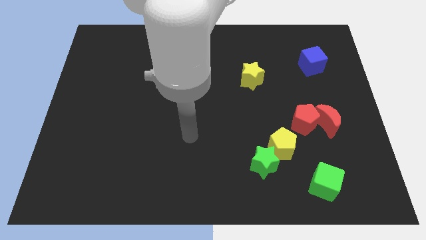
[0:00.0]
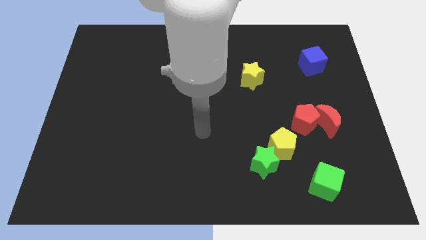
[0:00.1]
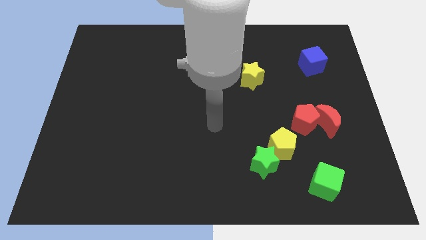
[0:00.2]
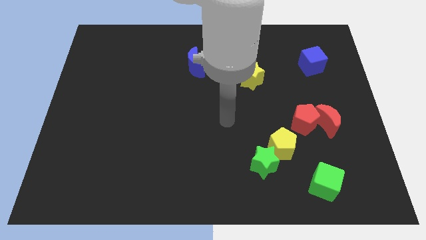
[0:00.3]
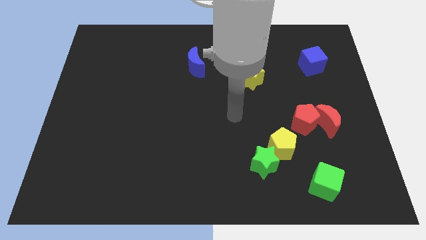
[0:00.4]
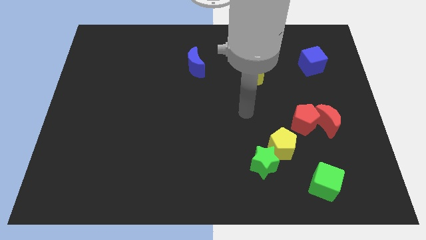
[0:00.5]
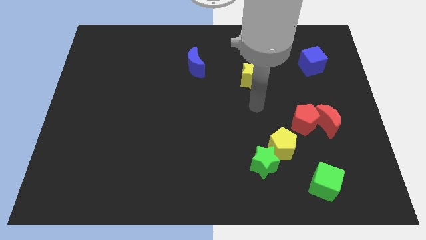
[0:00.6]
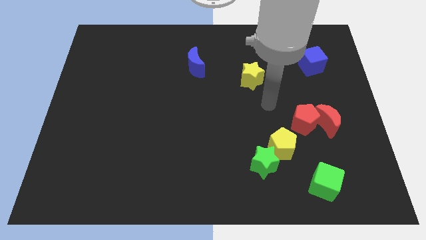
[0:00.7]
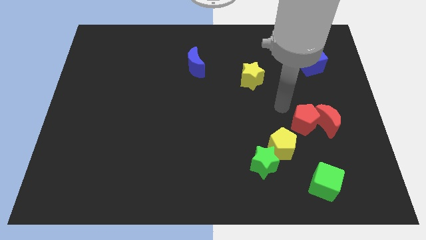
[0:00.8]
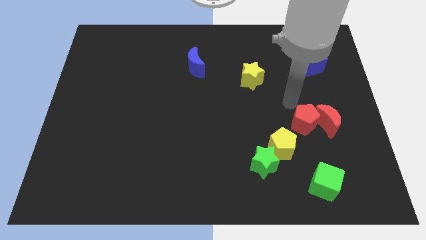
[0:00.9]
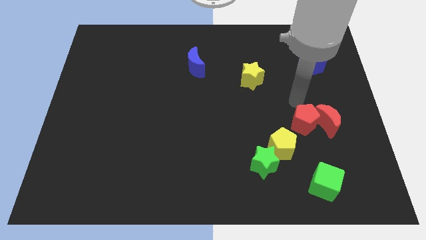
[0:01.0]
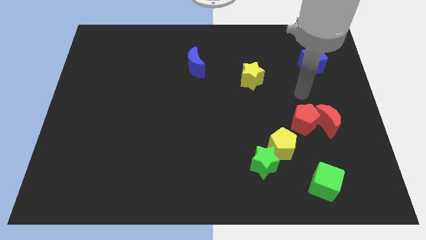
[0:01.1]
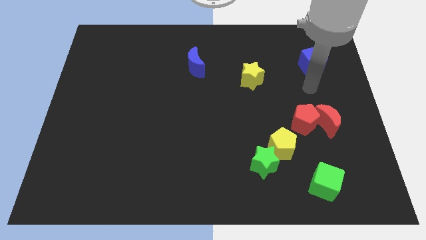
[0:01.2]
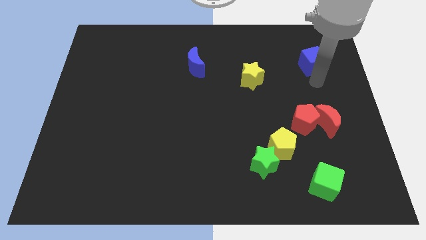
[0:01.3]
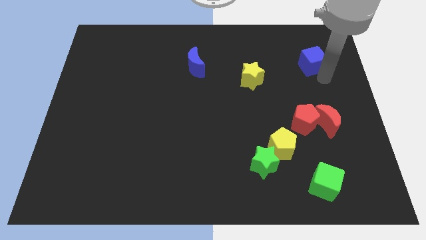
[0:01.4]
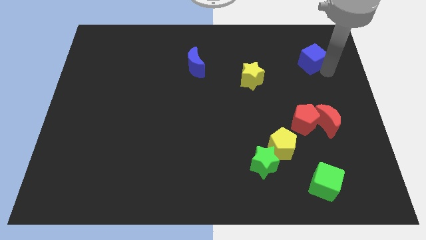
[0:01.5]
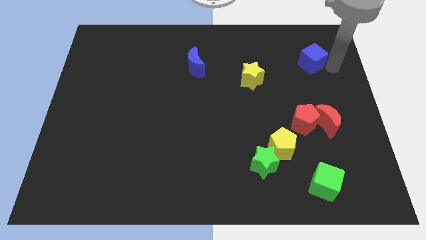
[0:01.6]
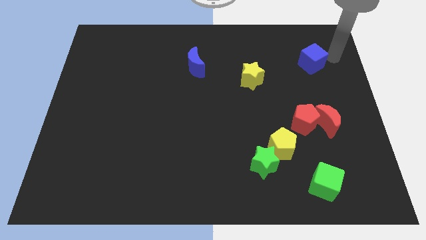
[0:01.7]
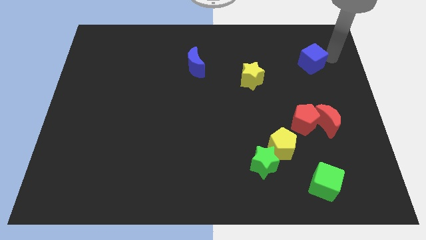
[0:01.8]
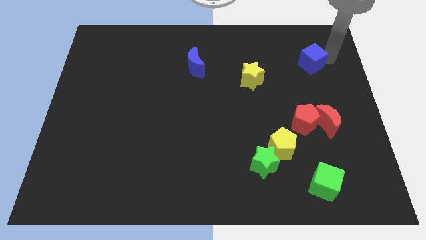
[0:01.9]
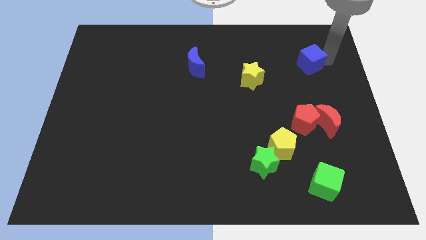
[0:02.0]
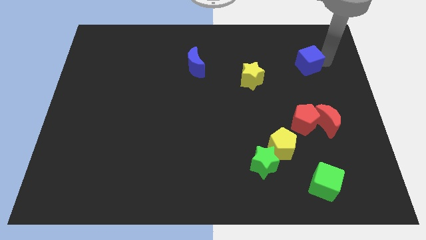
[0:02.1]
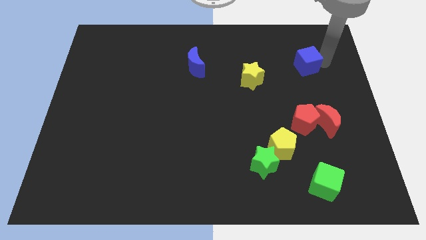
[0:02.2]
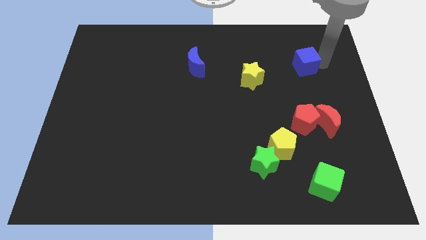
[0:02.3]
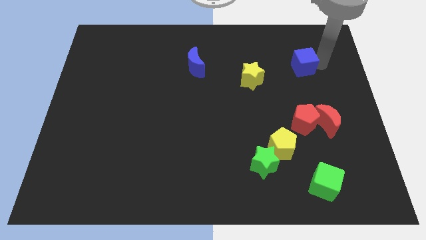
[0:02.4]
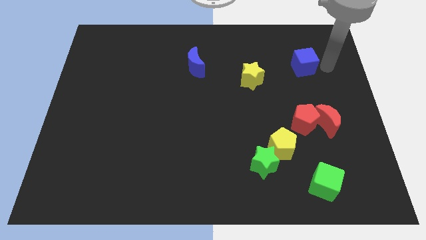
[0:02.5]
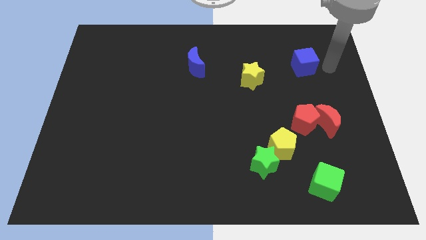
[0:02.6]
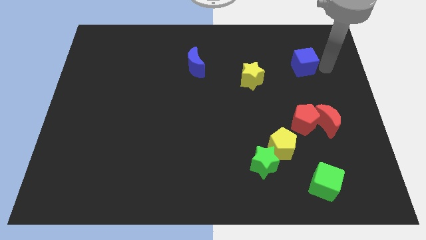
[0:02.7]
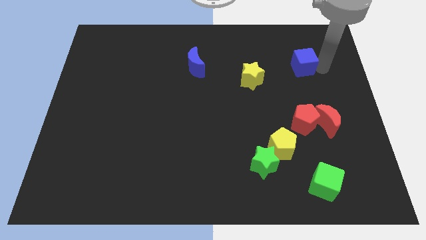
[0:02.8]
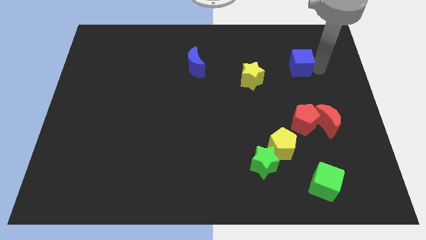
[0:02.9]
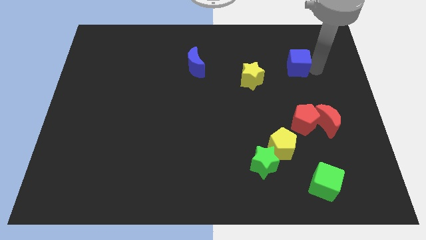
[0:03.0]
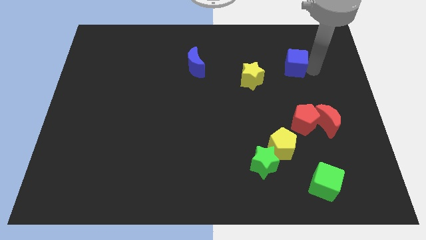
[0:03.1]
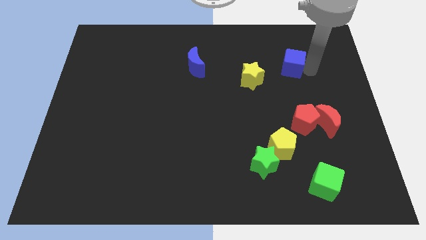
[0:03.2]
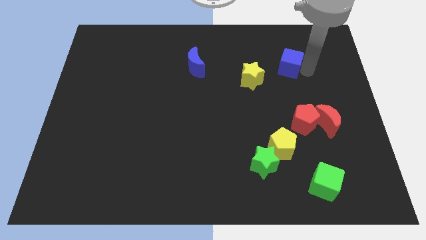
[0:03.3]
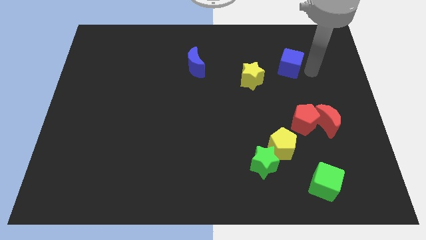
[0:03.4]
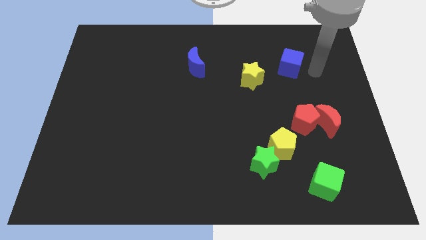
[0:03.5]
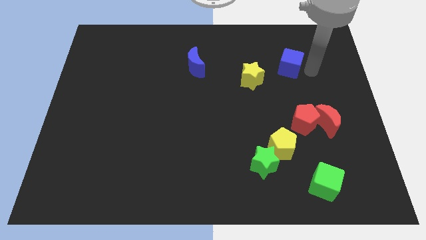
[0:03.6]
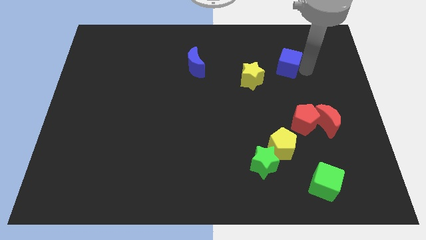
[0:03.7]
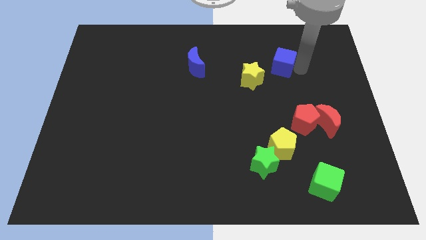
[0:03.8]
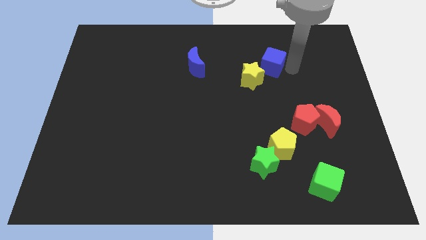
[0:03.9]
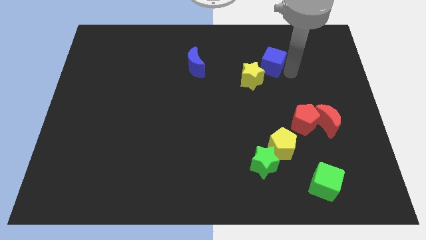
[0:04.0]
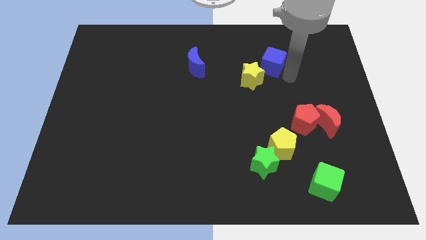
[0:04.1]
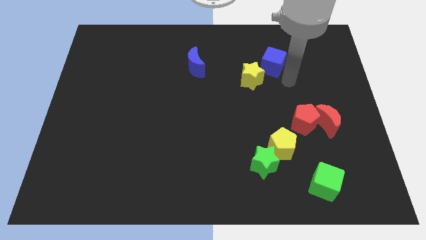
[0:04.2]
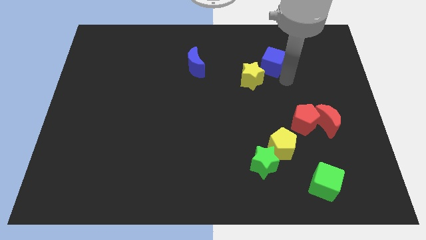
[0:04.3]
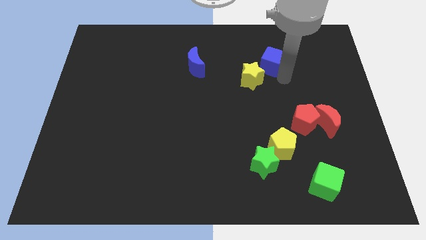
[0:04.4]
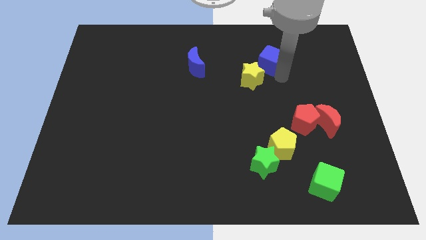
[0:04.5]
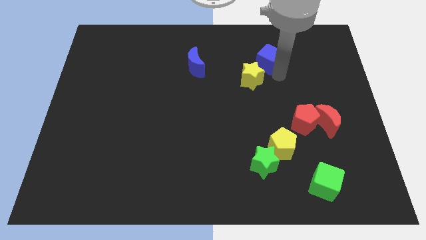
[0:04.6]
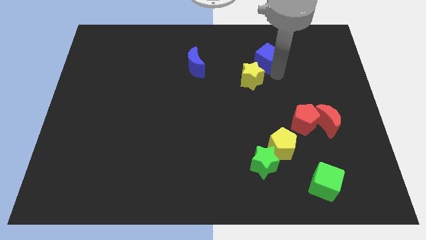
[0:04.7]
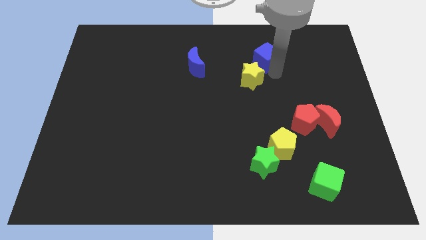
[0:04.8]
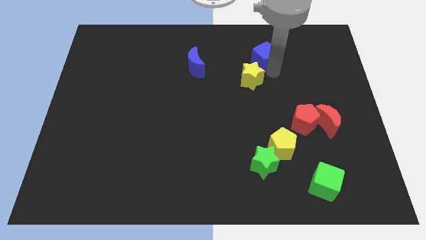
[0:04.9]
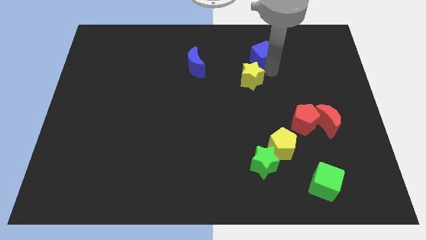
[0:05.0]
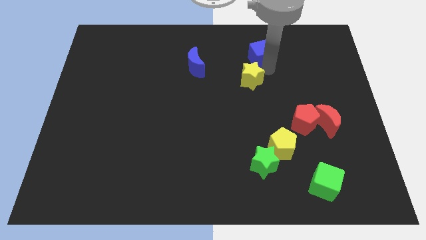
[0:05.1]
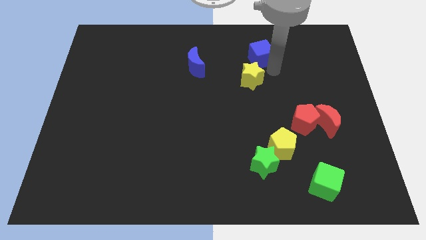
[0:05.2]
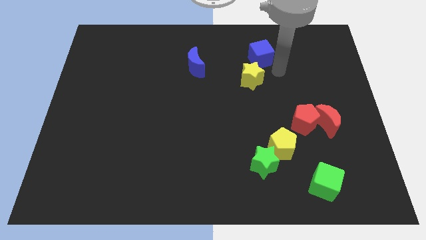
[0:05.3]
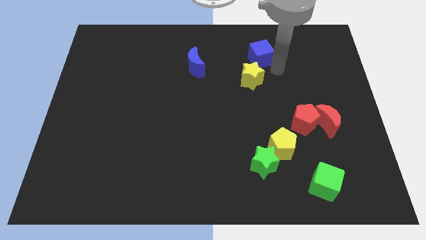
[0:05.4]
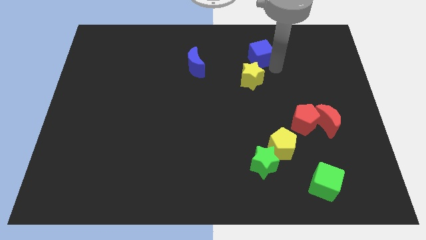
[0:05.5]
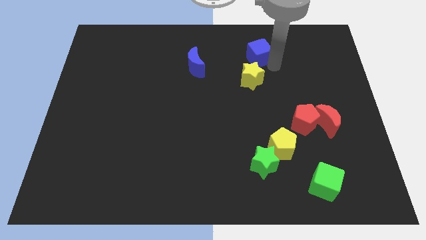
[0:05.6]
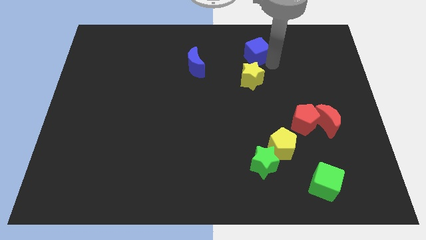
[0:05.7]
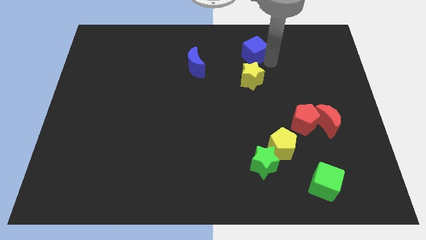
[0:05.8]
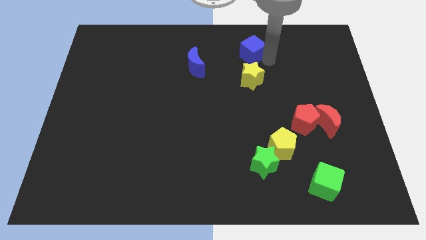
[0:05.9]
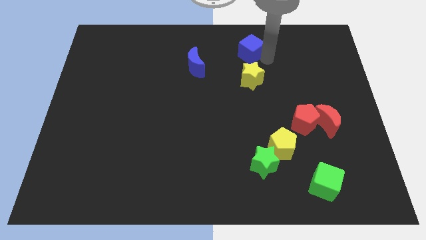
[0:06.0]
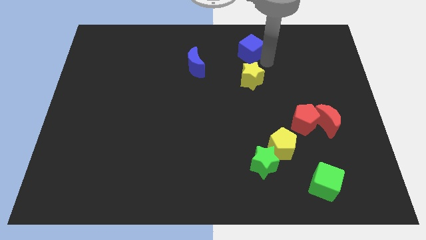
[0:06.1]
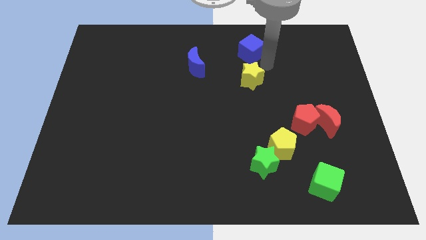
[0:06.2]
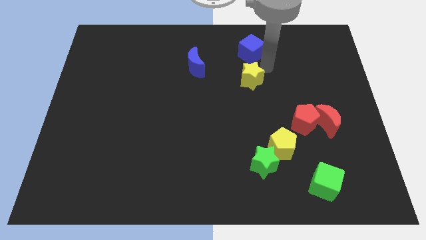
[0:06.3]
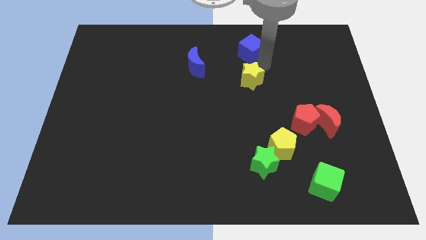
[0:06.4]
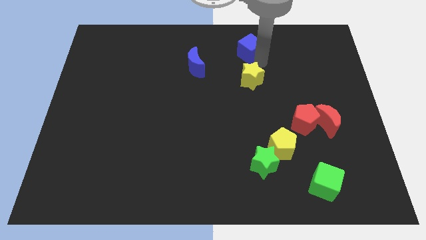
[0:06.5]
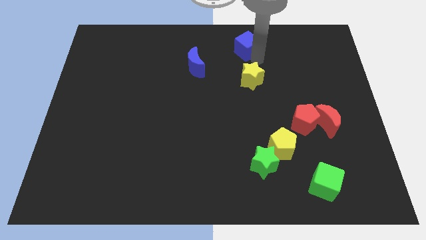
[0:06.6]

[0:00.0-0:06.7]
put the blue cube to the top
